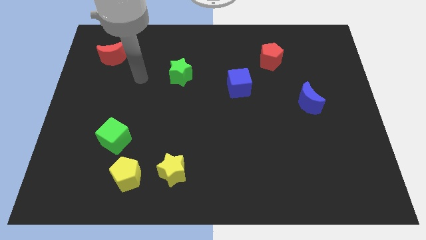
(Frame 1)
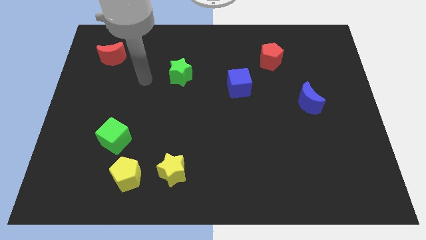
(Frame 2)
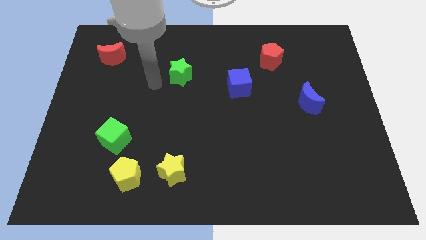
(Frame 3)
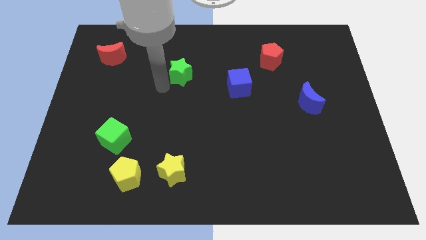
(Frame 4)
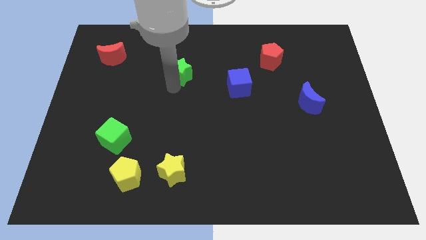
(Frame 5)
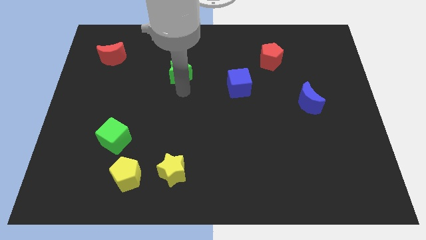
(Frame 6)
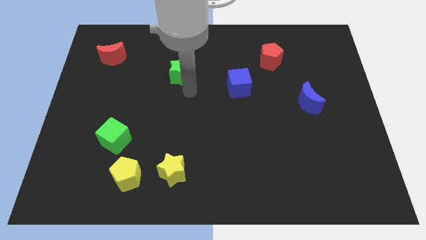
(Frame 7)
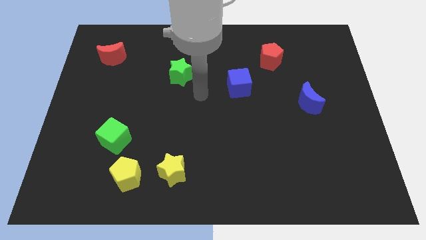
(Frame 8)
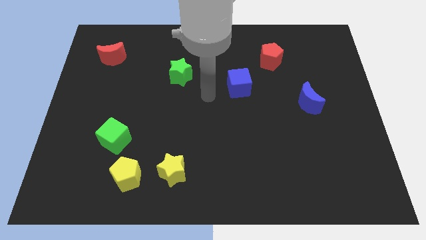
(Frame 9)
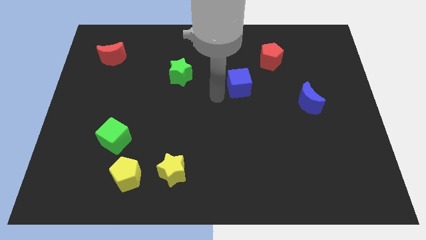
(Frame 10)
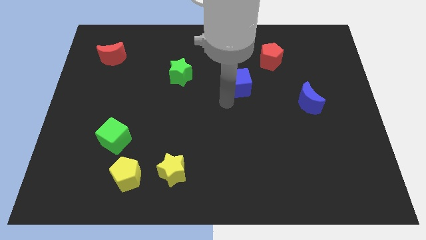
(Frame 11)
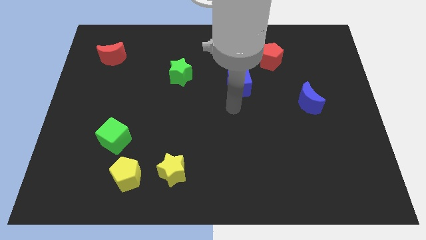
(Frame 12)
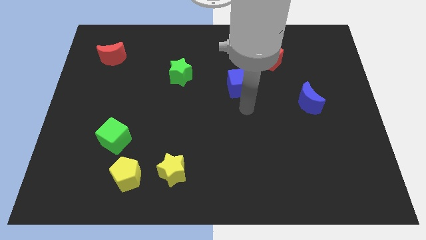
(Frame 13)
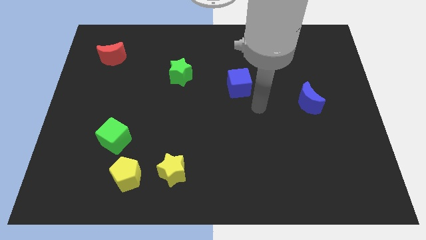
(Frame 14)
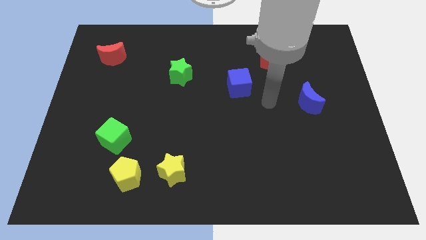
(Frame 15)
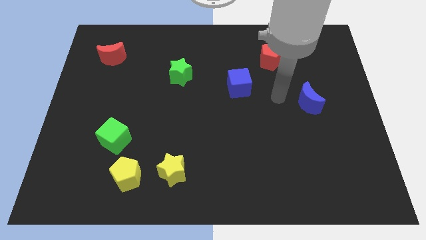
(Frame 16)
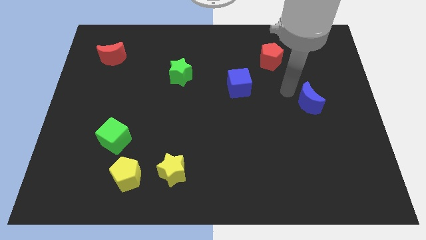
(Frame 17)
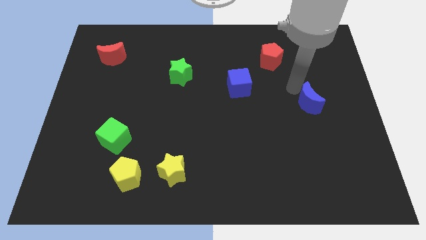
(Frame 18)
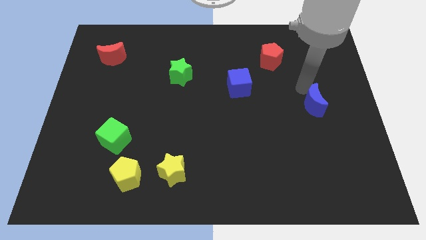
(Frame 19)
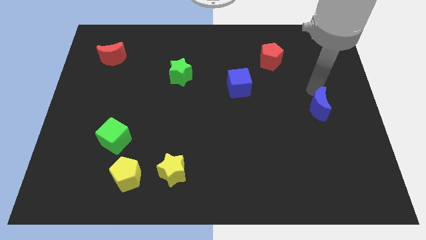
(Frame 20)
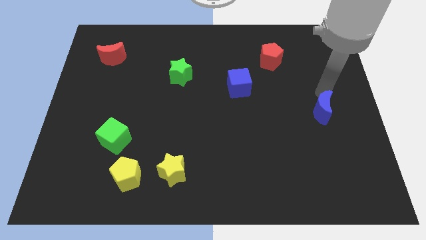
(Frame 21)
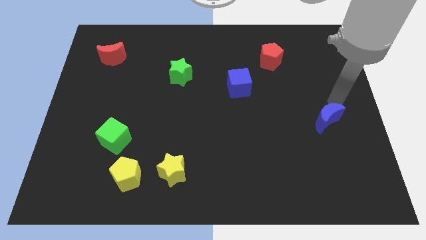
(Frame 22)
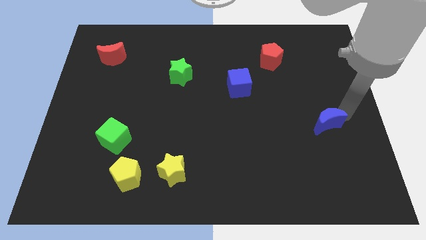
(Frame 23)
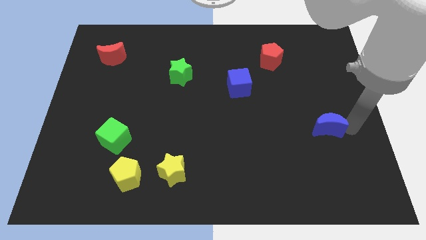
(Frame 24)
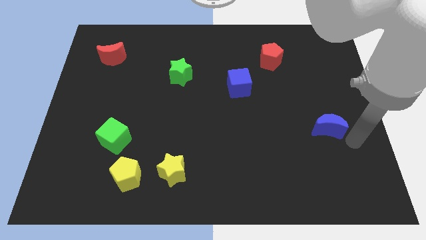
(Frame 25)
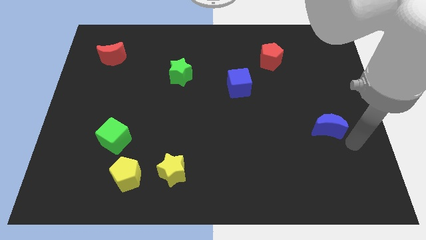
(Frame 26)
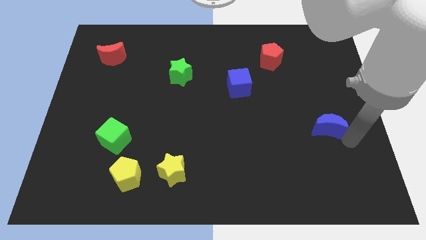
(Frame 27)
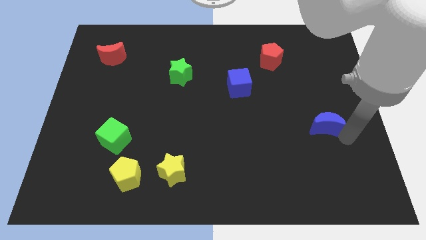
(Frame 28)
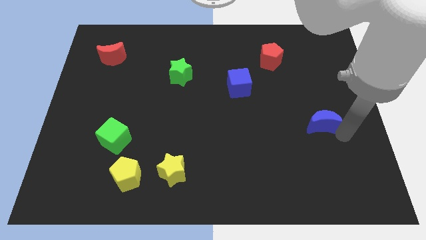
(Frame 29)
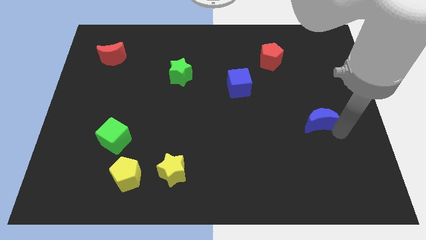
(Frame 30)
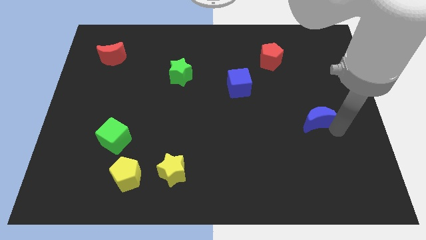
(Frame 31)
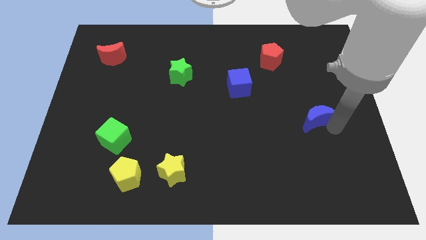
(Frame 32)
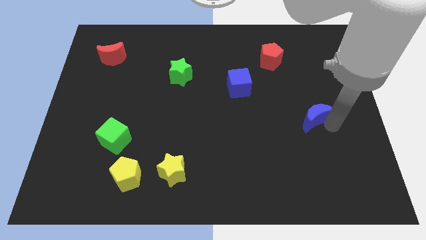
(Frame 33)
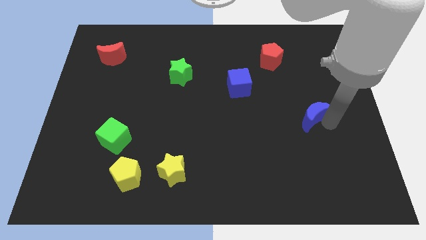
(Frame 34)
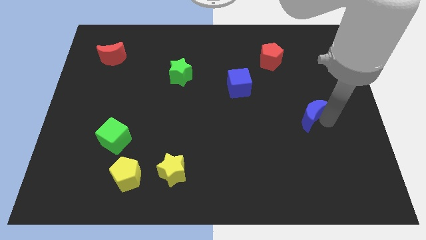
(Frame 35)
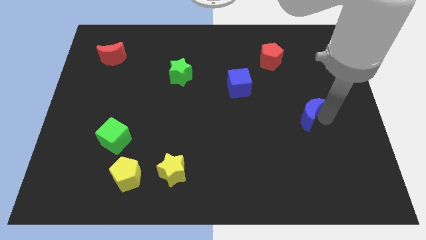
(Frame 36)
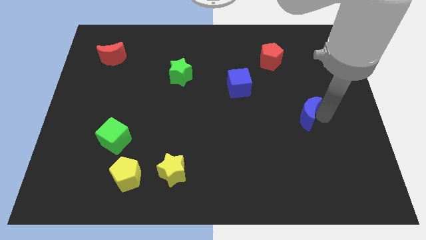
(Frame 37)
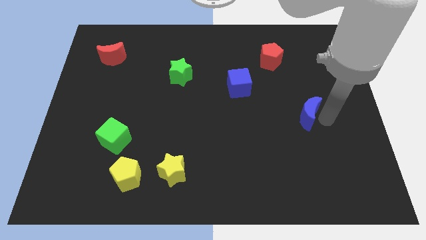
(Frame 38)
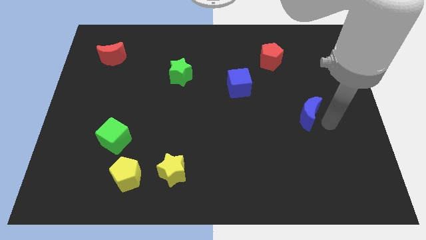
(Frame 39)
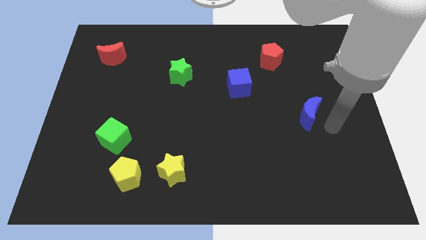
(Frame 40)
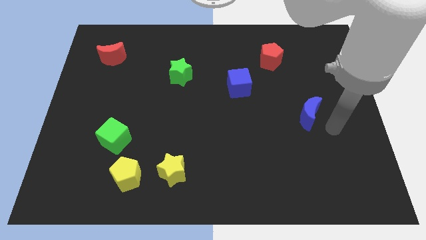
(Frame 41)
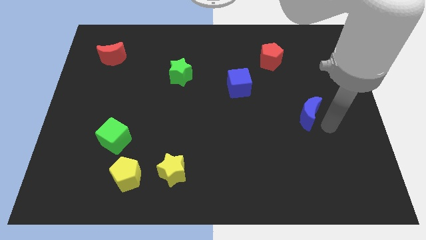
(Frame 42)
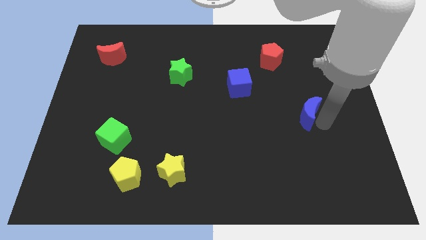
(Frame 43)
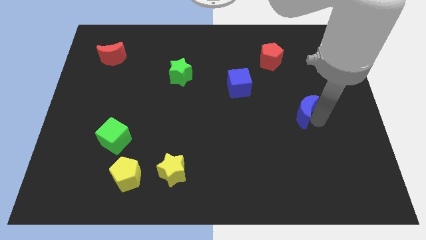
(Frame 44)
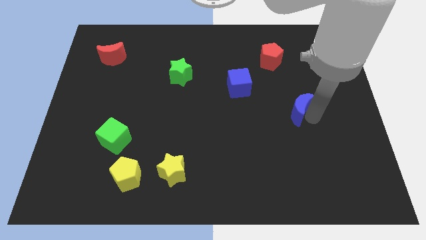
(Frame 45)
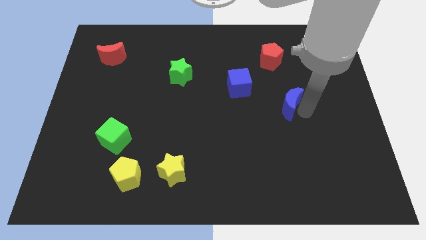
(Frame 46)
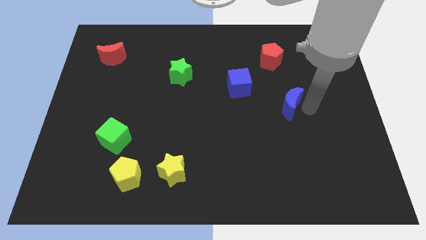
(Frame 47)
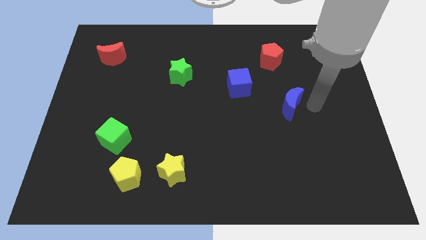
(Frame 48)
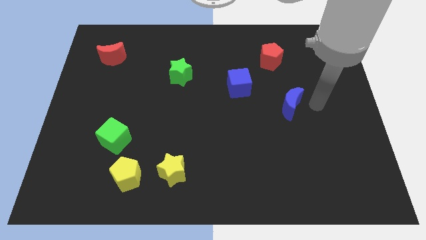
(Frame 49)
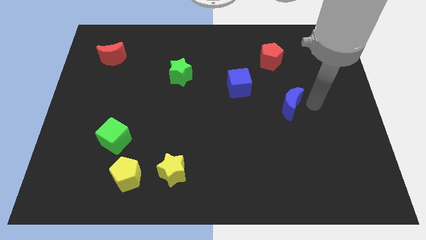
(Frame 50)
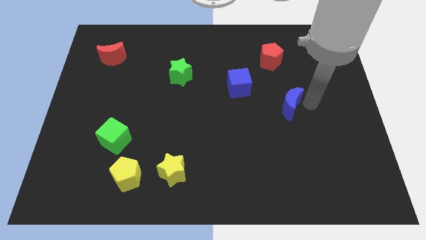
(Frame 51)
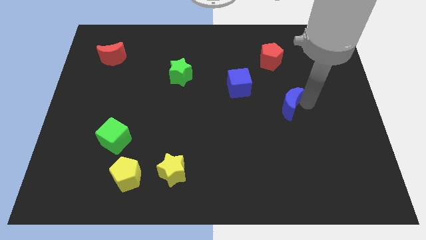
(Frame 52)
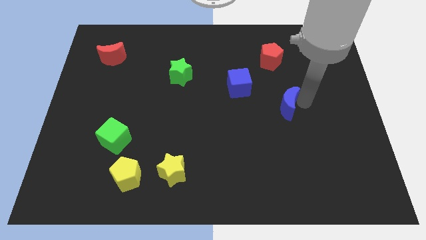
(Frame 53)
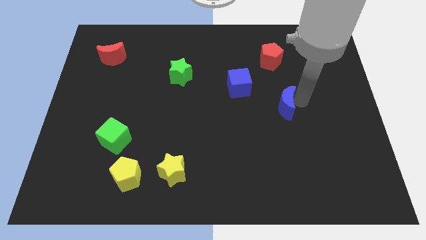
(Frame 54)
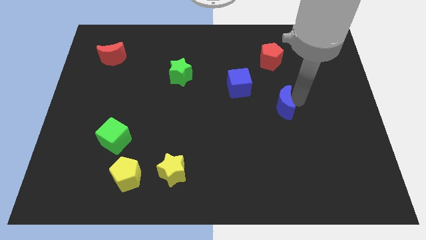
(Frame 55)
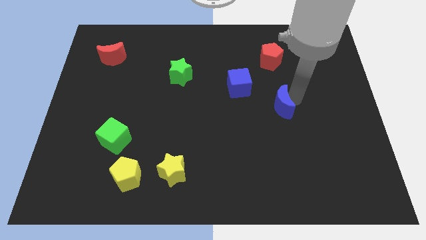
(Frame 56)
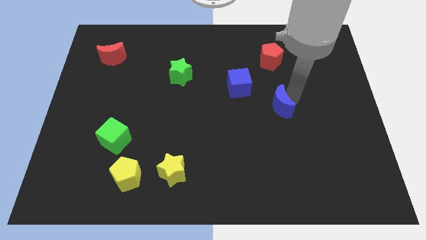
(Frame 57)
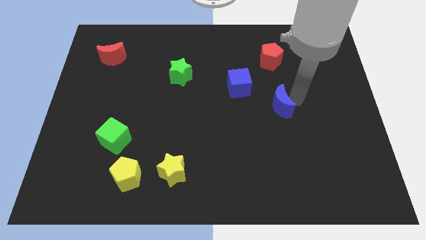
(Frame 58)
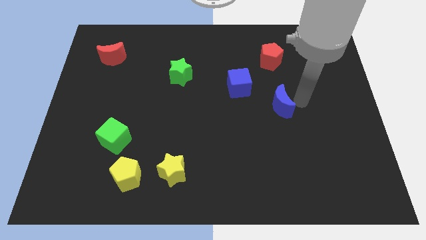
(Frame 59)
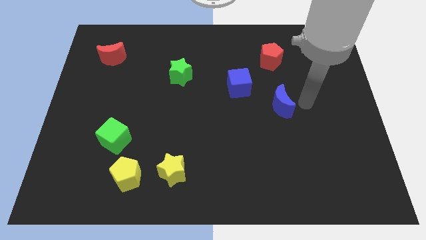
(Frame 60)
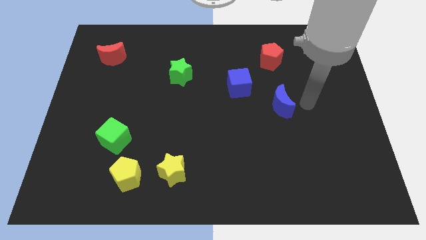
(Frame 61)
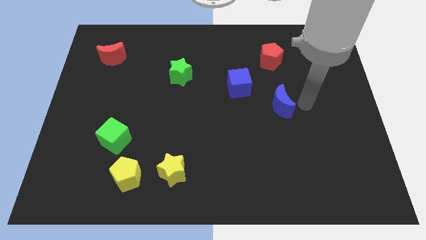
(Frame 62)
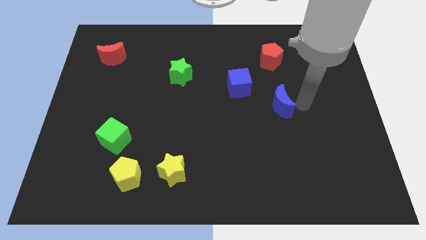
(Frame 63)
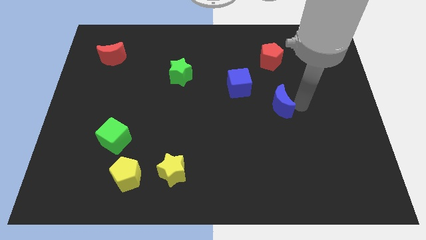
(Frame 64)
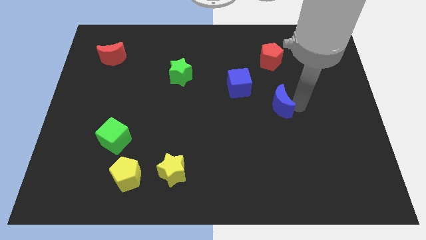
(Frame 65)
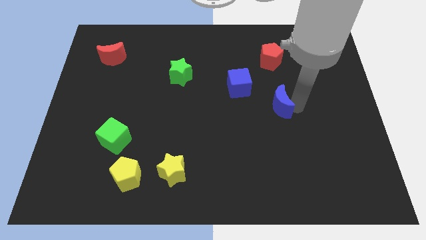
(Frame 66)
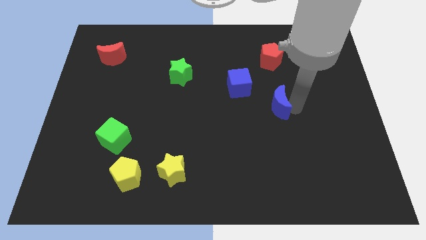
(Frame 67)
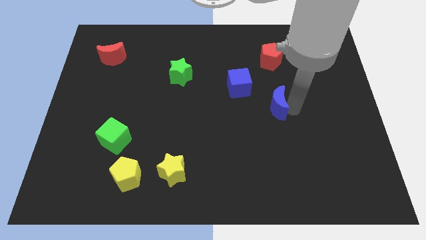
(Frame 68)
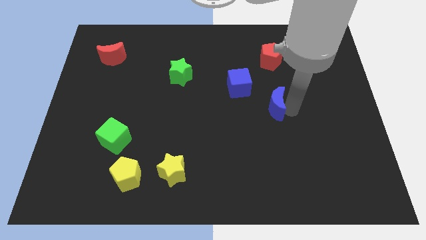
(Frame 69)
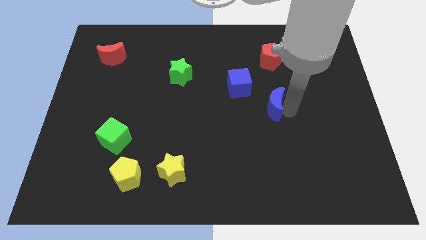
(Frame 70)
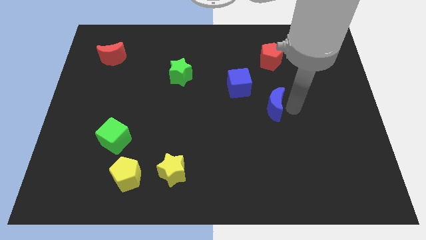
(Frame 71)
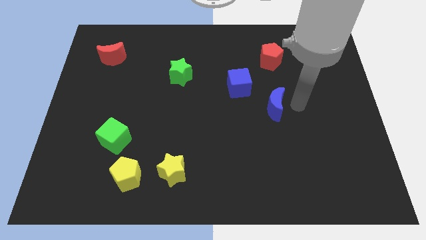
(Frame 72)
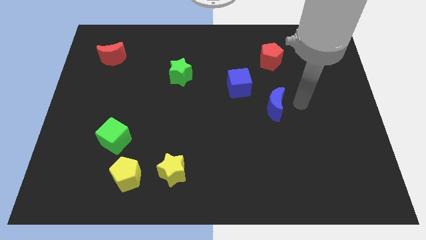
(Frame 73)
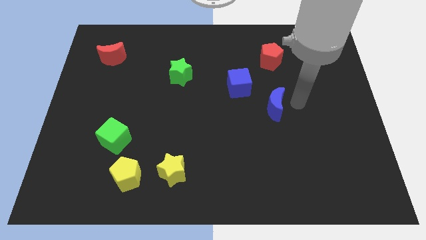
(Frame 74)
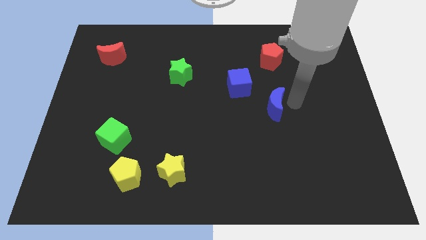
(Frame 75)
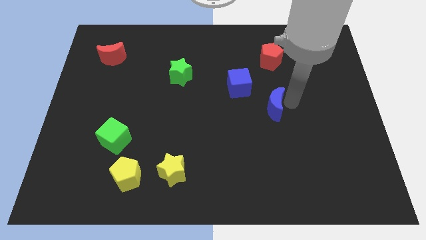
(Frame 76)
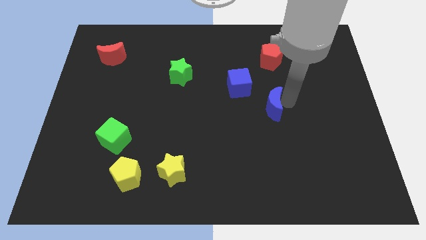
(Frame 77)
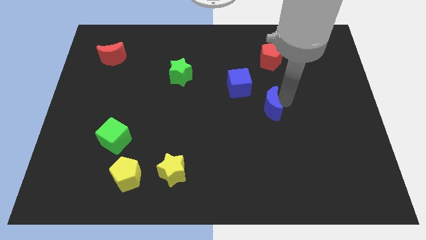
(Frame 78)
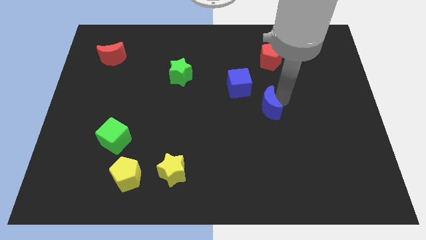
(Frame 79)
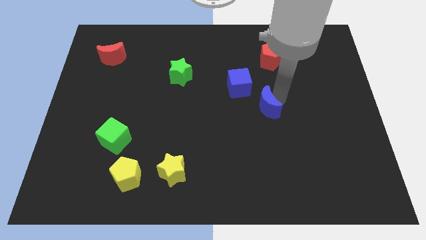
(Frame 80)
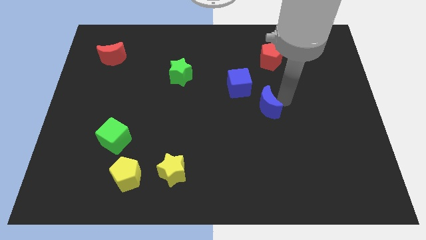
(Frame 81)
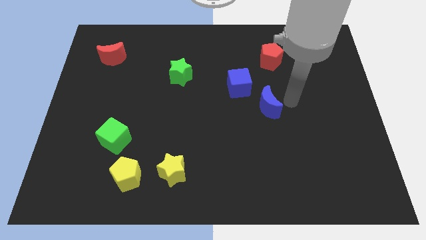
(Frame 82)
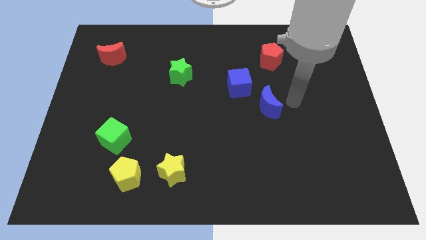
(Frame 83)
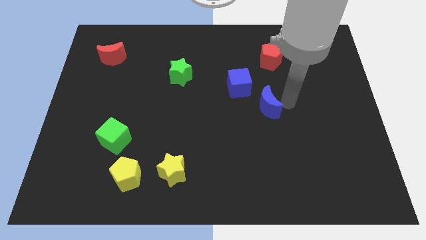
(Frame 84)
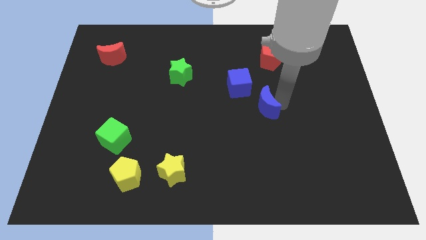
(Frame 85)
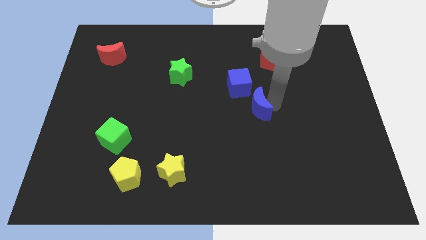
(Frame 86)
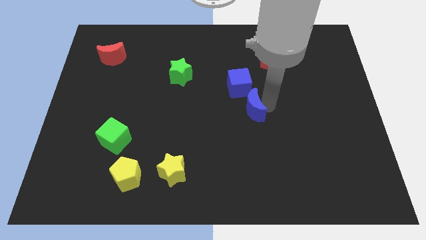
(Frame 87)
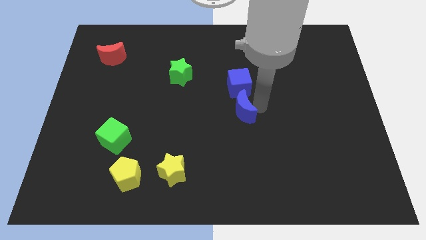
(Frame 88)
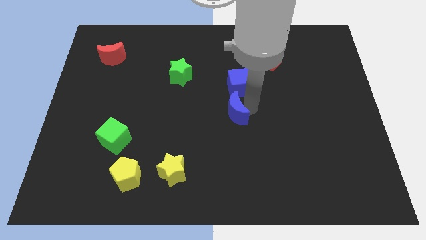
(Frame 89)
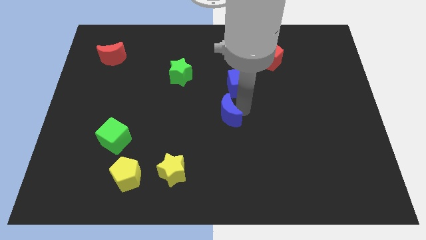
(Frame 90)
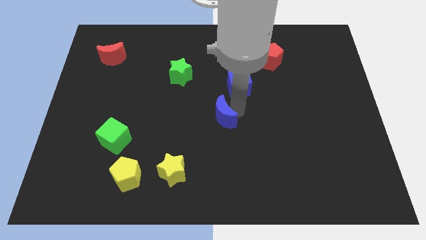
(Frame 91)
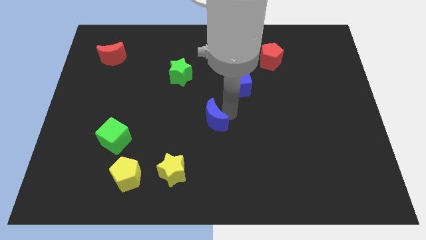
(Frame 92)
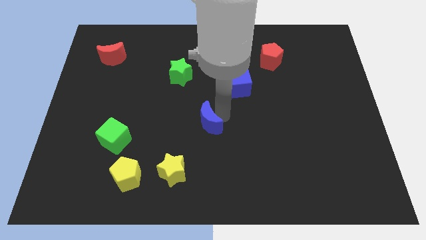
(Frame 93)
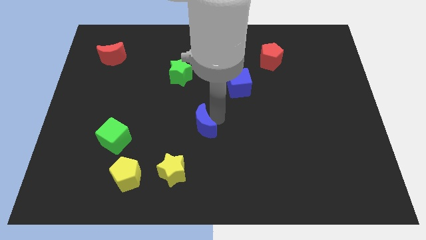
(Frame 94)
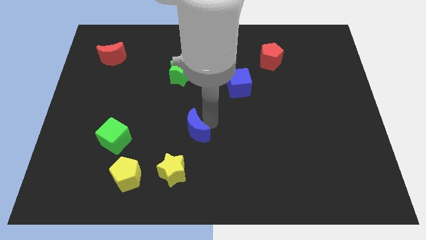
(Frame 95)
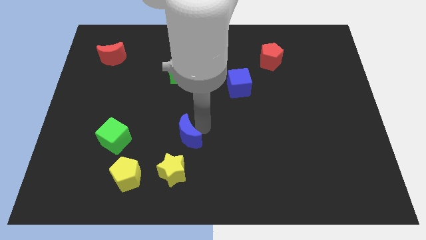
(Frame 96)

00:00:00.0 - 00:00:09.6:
move the blue moon to the right side of the green cube
